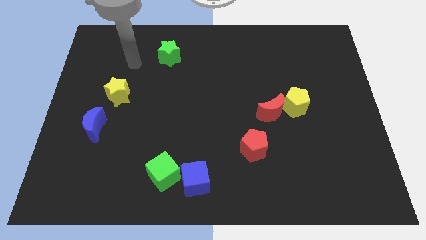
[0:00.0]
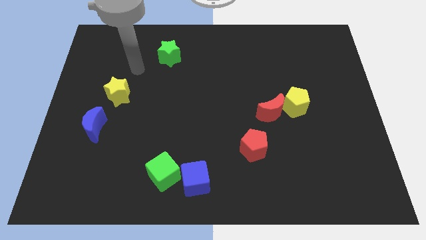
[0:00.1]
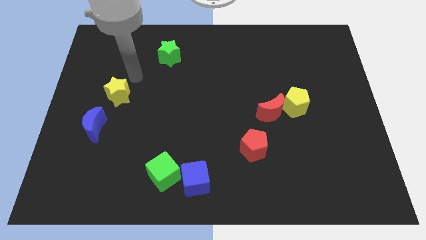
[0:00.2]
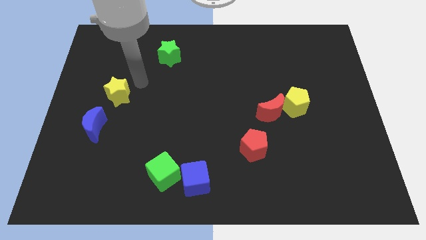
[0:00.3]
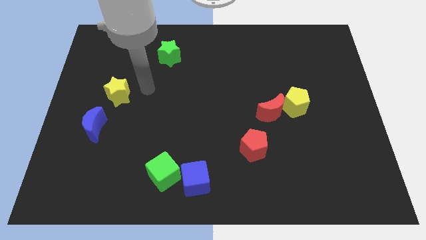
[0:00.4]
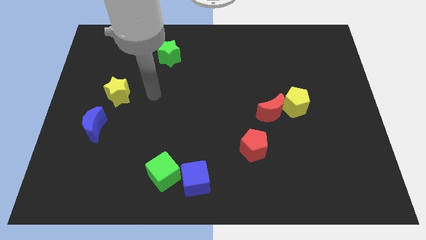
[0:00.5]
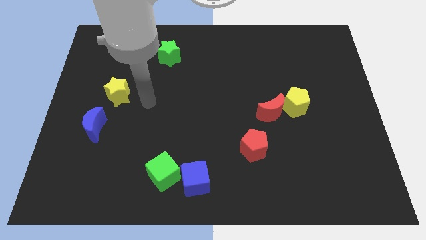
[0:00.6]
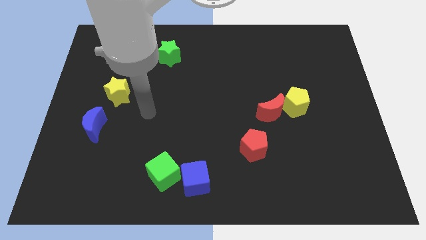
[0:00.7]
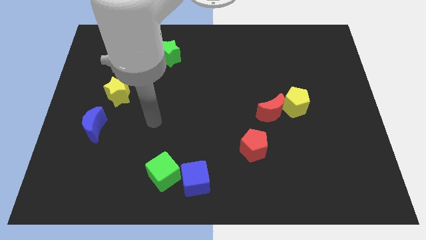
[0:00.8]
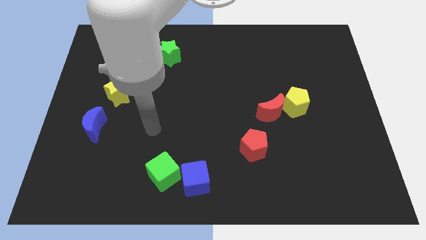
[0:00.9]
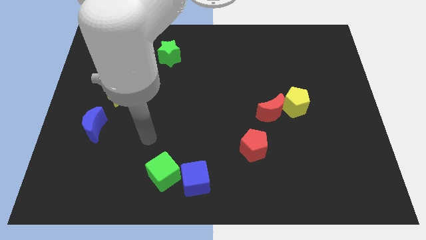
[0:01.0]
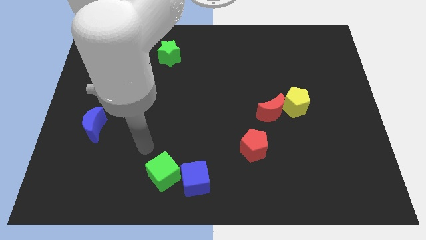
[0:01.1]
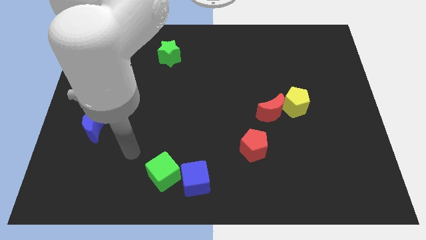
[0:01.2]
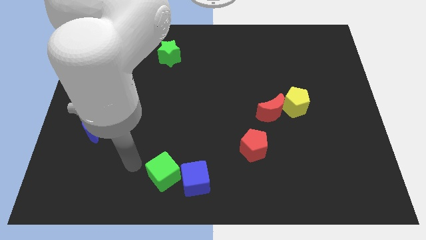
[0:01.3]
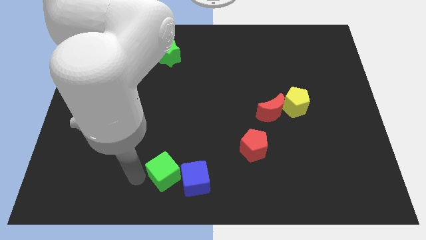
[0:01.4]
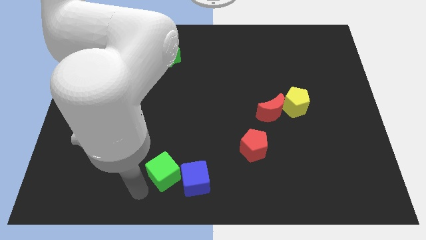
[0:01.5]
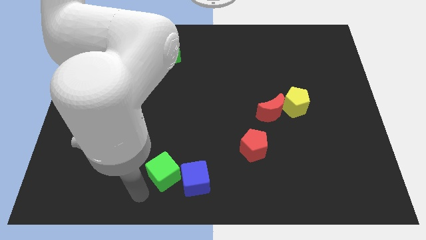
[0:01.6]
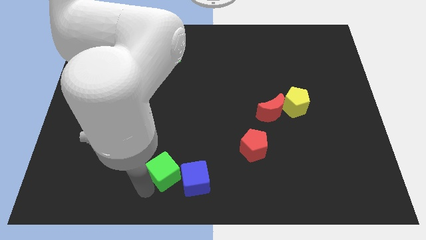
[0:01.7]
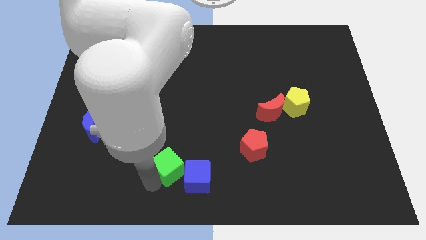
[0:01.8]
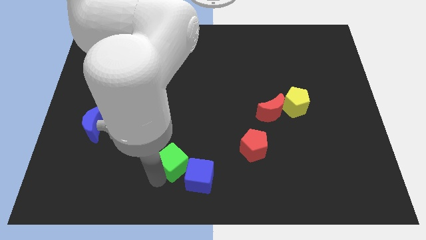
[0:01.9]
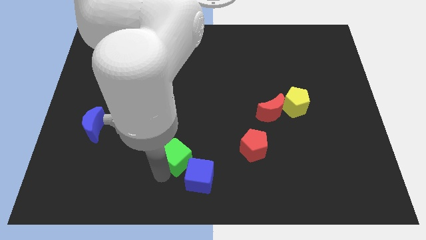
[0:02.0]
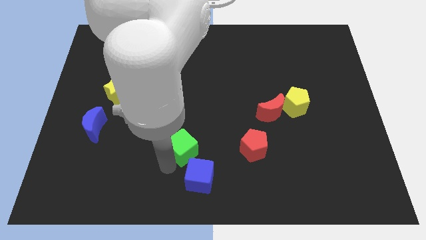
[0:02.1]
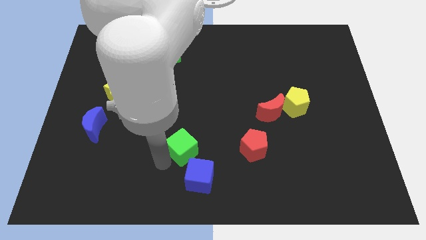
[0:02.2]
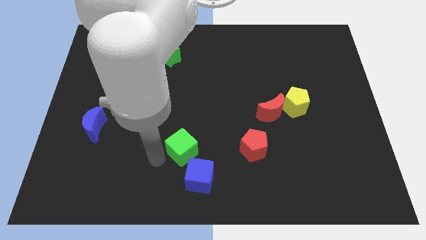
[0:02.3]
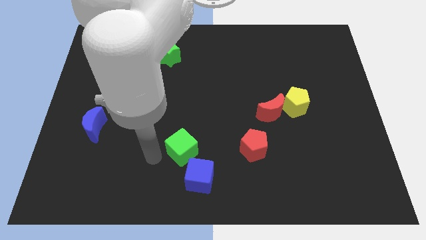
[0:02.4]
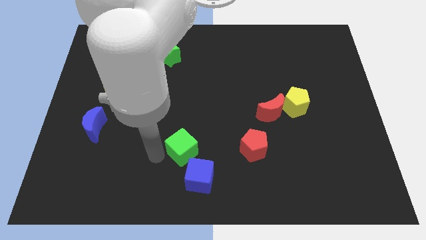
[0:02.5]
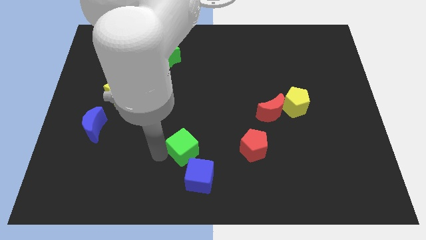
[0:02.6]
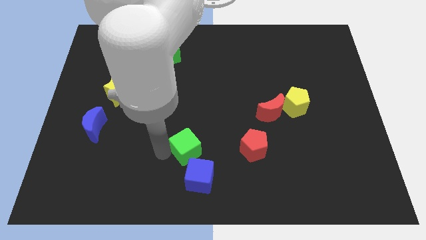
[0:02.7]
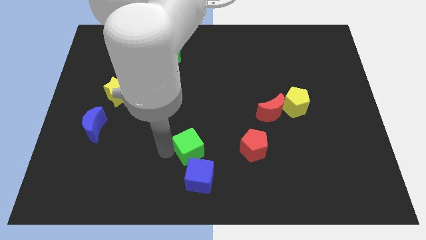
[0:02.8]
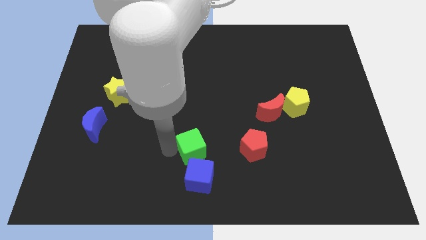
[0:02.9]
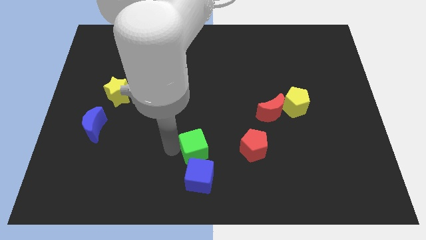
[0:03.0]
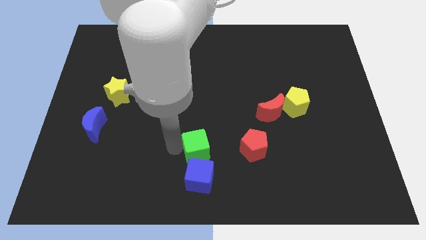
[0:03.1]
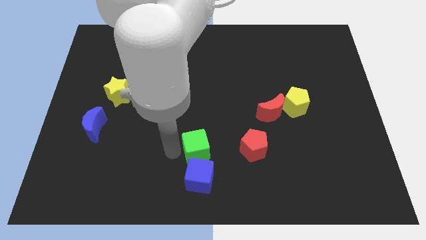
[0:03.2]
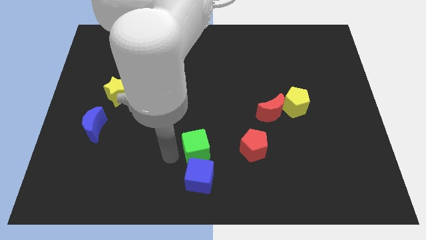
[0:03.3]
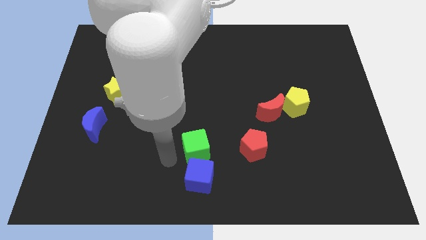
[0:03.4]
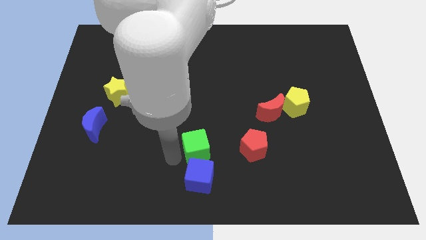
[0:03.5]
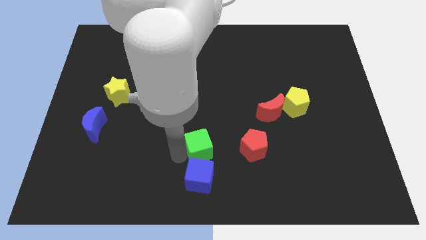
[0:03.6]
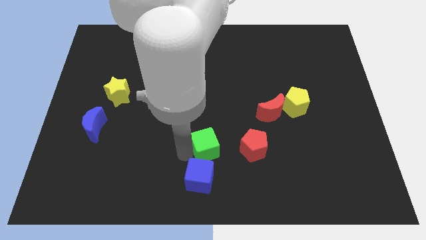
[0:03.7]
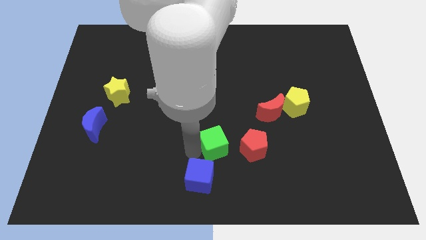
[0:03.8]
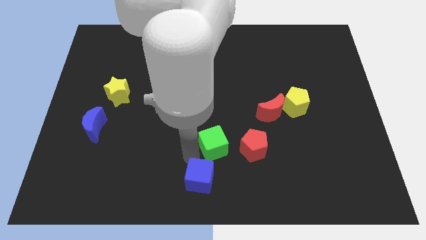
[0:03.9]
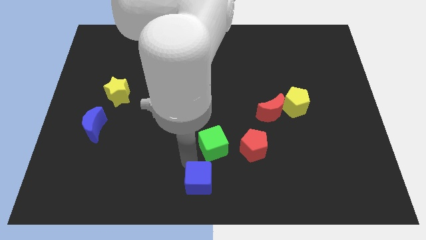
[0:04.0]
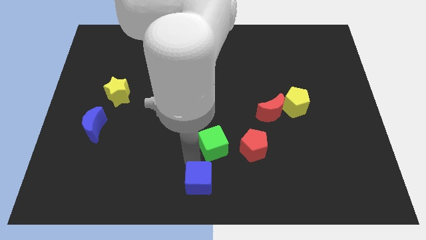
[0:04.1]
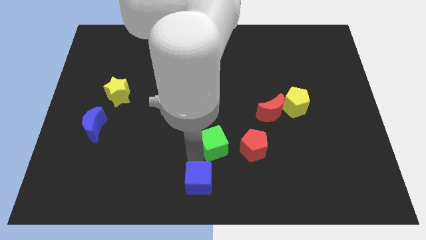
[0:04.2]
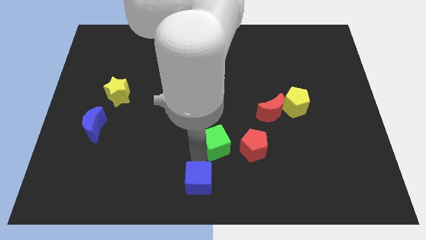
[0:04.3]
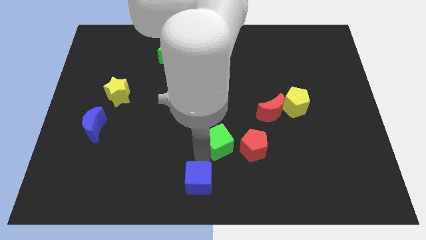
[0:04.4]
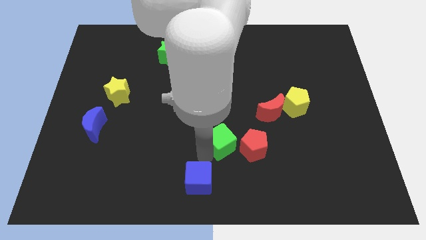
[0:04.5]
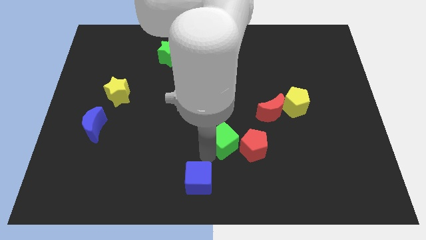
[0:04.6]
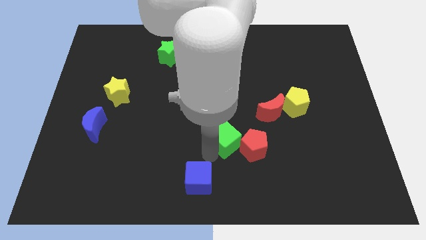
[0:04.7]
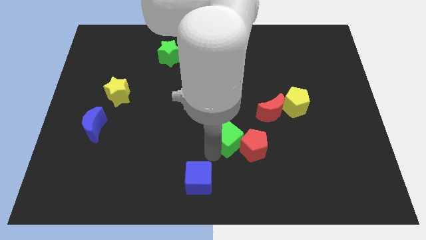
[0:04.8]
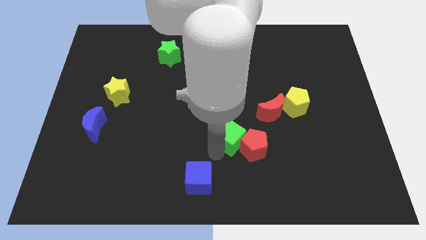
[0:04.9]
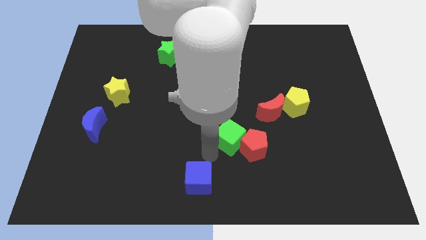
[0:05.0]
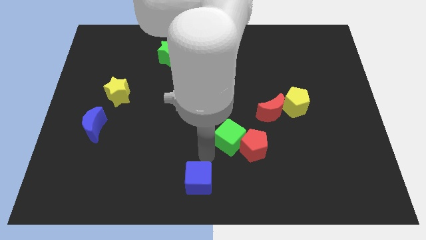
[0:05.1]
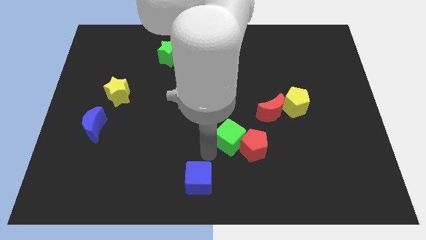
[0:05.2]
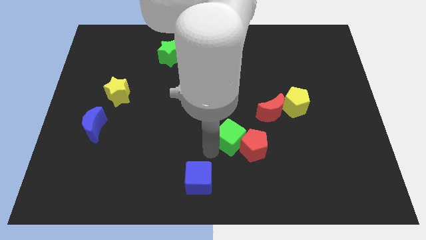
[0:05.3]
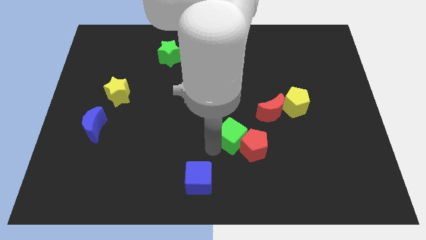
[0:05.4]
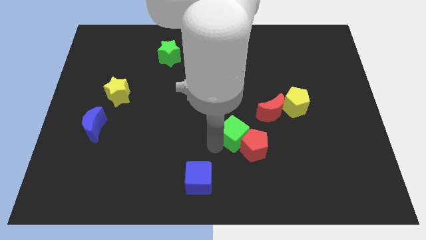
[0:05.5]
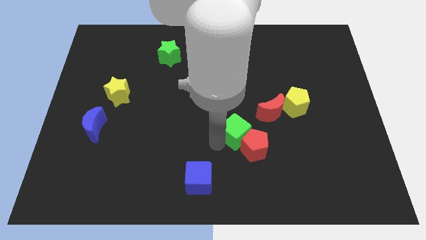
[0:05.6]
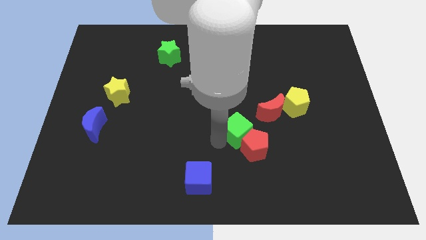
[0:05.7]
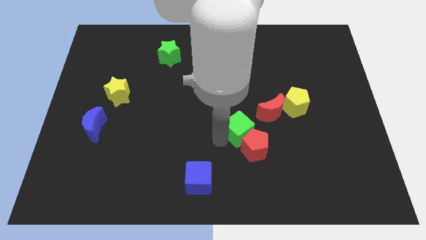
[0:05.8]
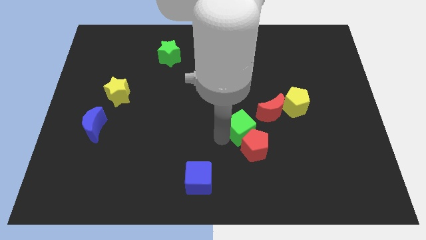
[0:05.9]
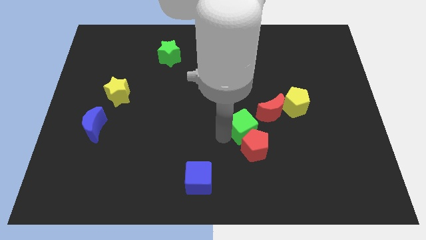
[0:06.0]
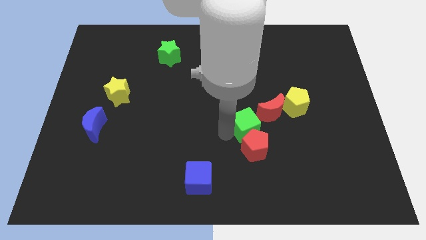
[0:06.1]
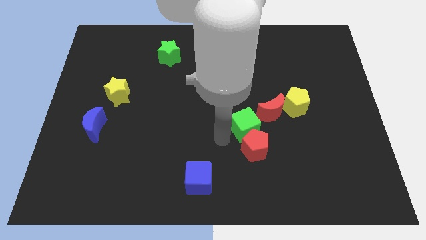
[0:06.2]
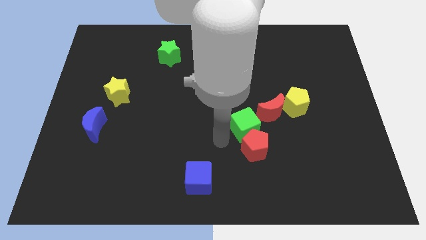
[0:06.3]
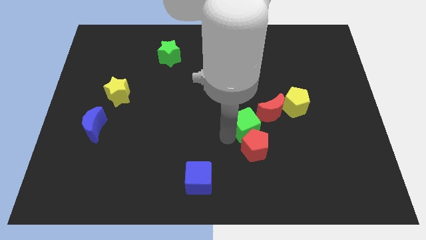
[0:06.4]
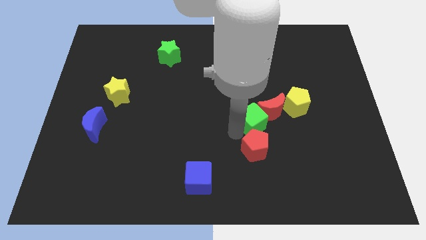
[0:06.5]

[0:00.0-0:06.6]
slide the green cube to the red moon

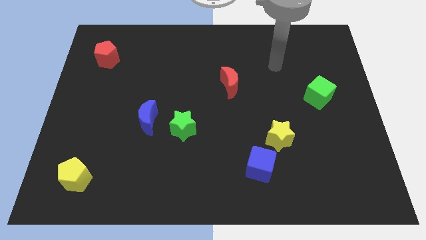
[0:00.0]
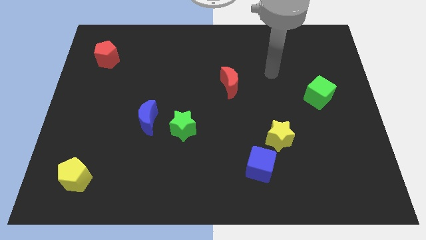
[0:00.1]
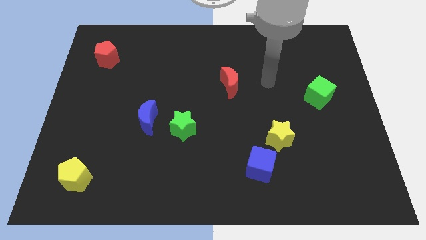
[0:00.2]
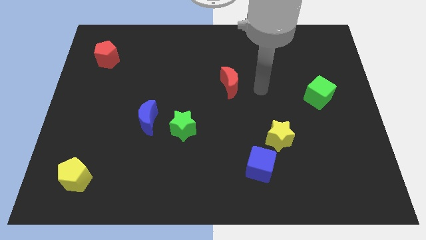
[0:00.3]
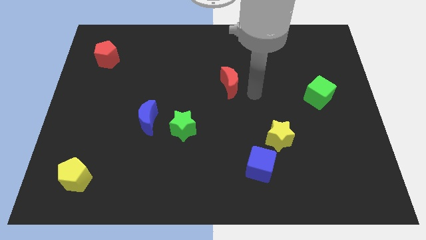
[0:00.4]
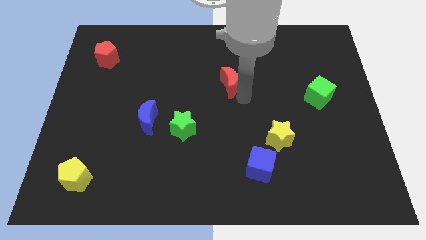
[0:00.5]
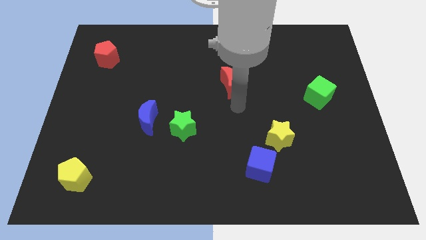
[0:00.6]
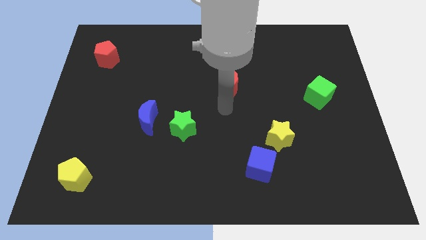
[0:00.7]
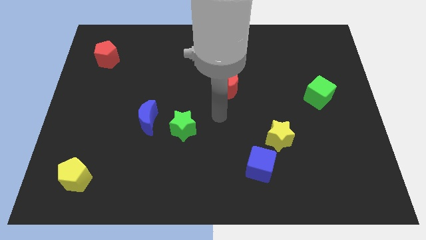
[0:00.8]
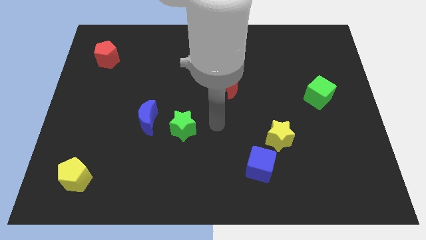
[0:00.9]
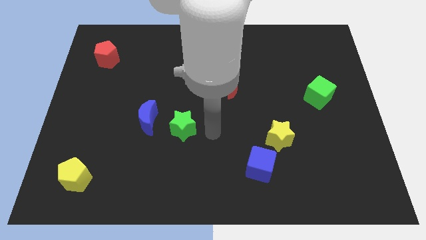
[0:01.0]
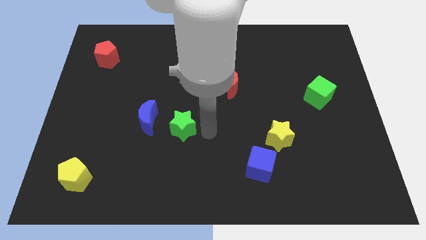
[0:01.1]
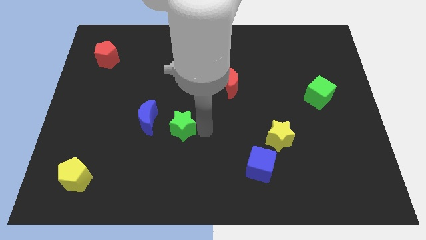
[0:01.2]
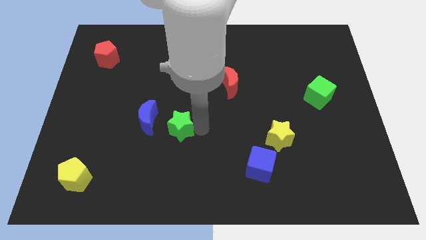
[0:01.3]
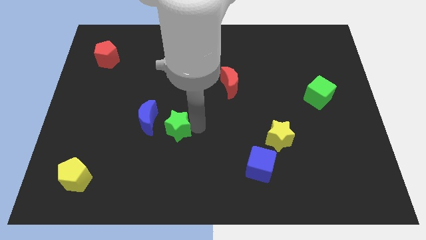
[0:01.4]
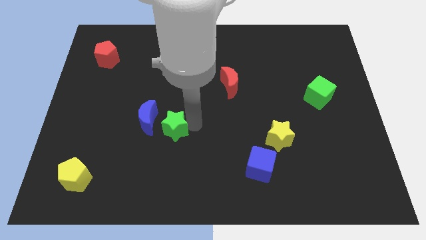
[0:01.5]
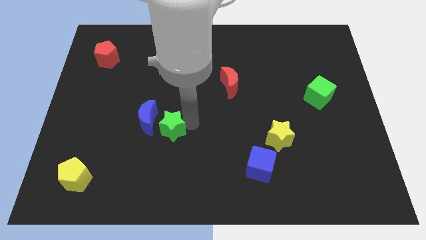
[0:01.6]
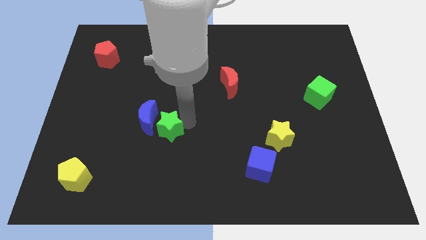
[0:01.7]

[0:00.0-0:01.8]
move the green star close to the blue moon
